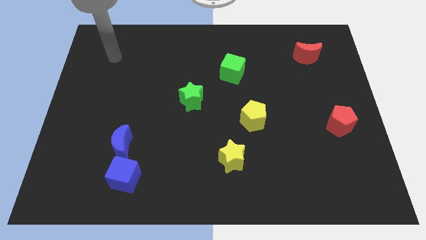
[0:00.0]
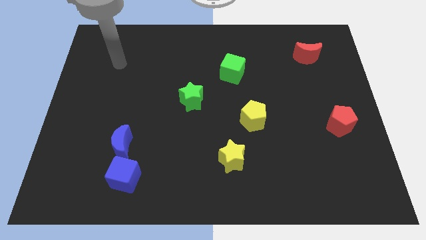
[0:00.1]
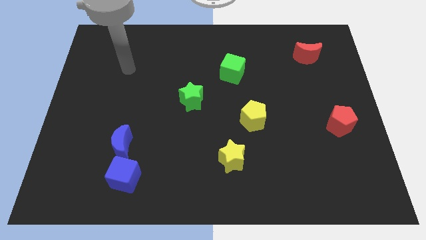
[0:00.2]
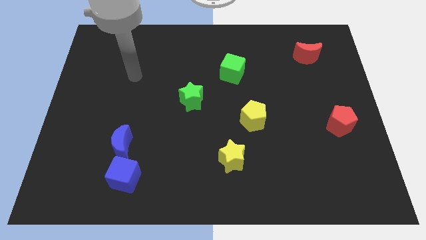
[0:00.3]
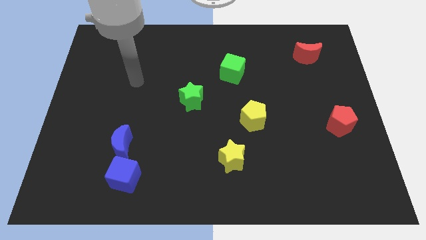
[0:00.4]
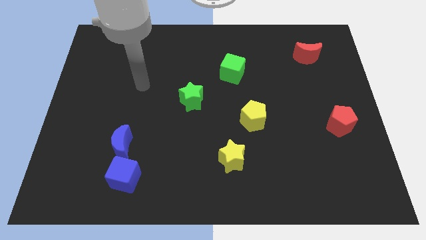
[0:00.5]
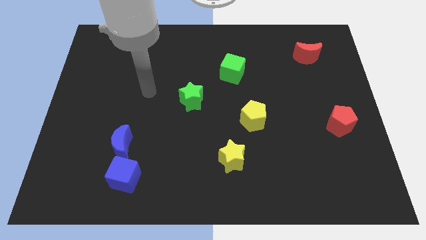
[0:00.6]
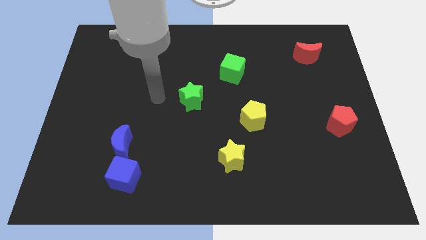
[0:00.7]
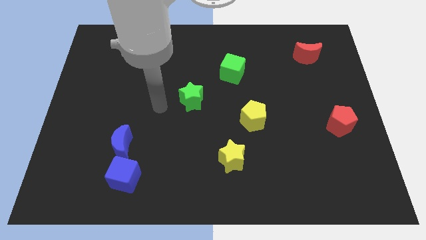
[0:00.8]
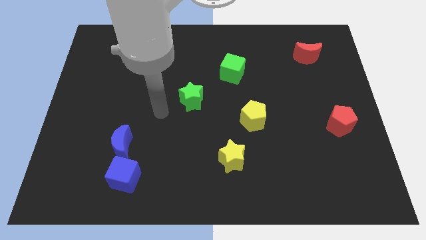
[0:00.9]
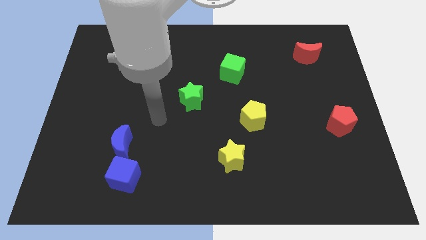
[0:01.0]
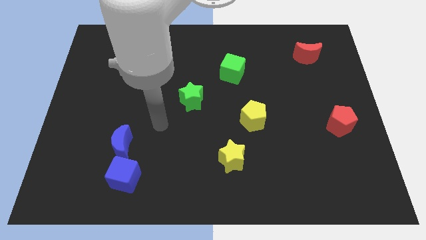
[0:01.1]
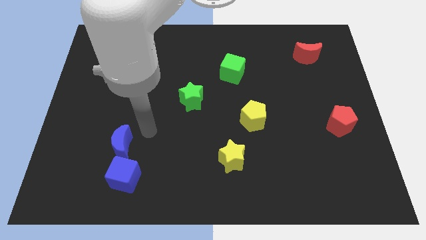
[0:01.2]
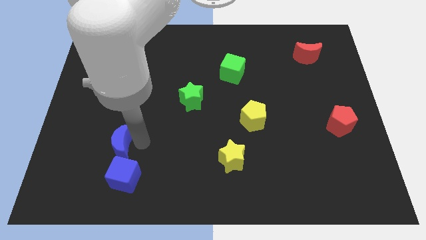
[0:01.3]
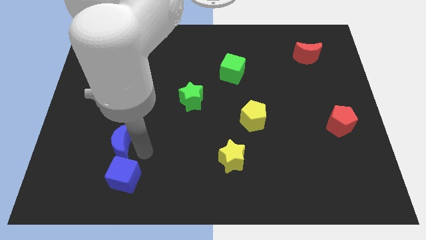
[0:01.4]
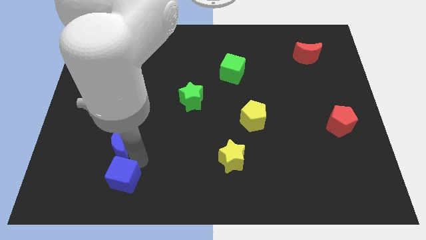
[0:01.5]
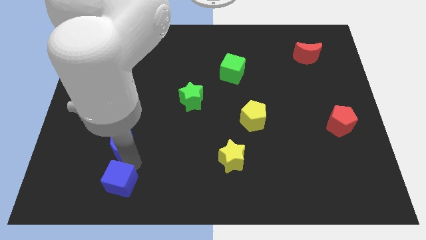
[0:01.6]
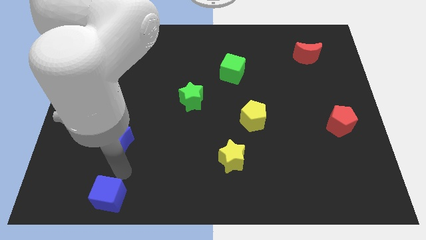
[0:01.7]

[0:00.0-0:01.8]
pull the blue moon apart from the blue cube

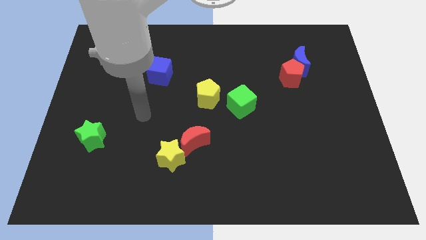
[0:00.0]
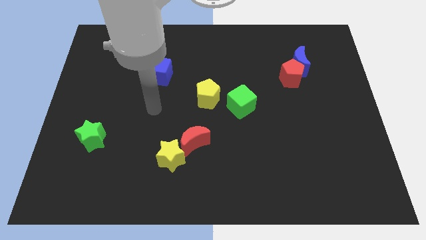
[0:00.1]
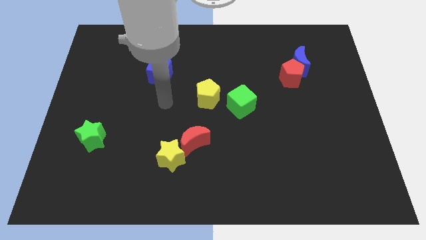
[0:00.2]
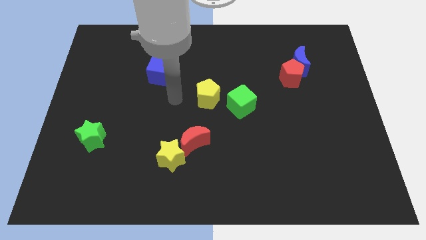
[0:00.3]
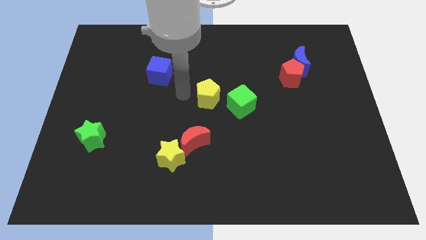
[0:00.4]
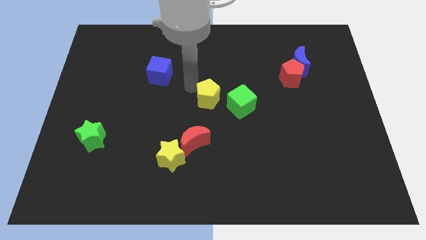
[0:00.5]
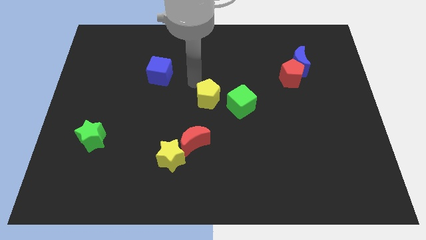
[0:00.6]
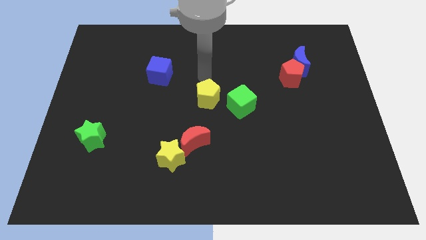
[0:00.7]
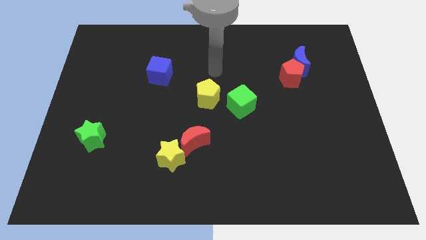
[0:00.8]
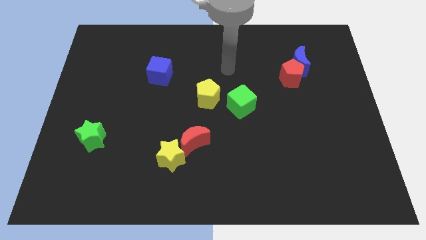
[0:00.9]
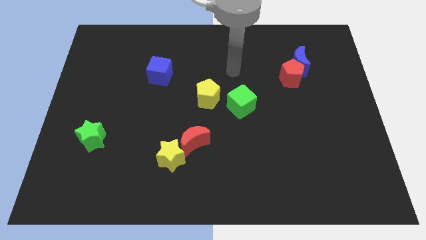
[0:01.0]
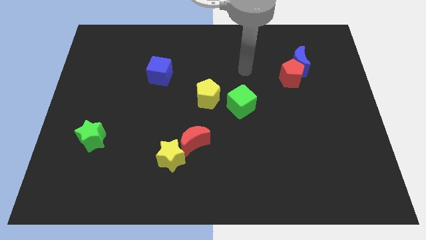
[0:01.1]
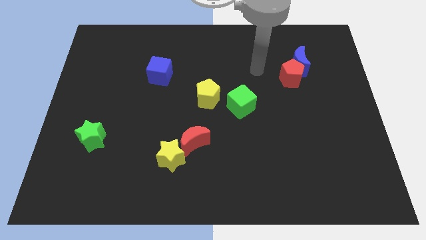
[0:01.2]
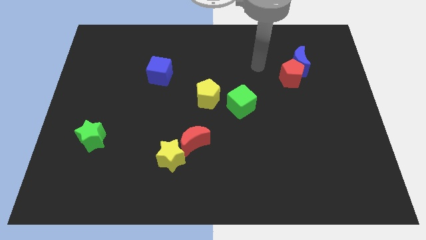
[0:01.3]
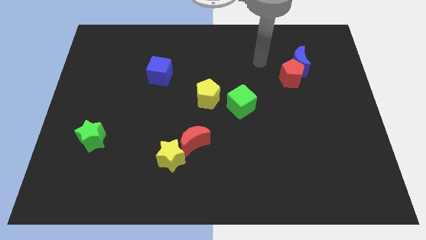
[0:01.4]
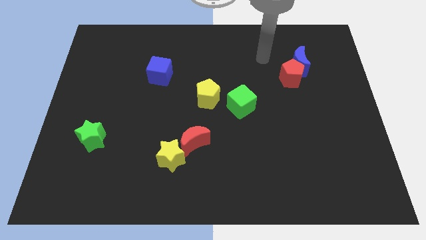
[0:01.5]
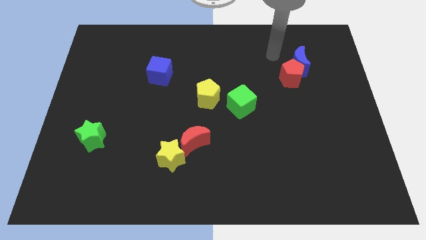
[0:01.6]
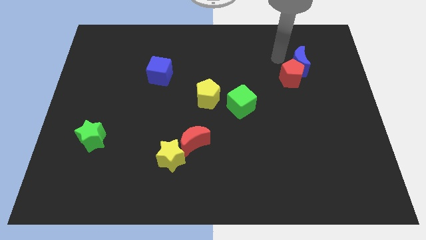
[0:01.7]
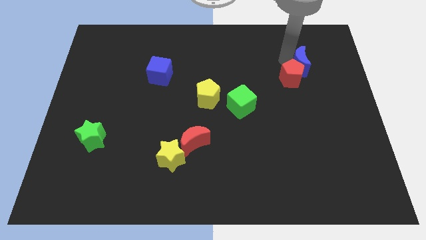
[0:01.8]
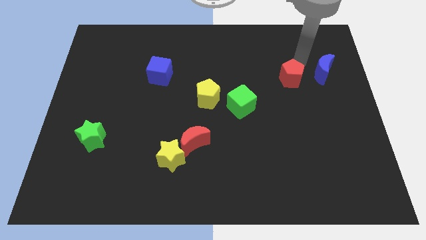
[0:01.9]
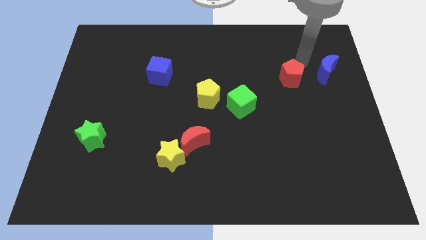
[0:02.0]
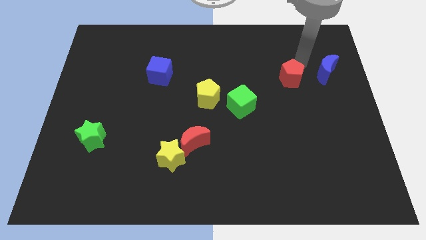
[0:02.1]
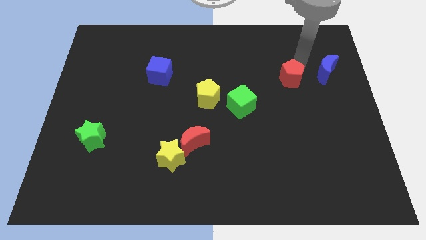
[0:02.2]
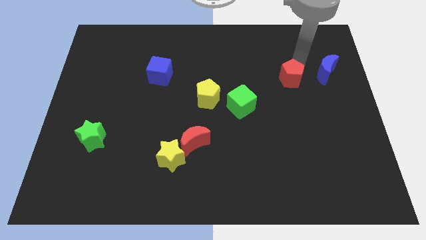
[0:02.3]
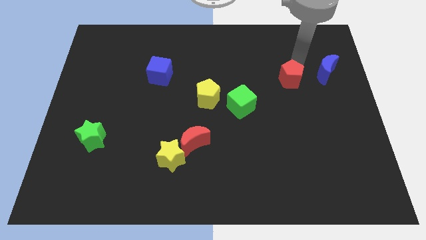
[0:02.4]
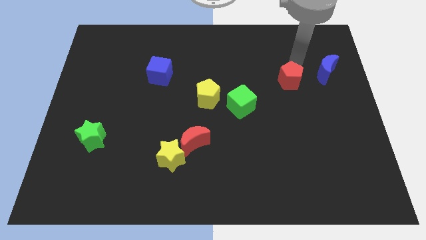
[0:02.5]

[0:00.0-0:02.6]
move the red pentagon away from the blue moon

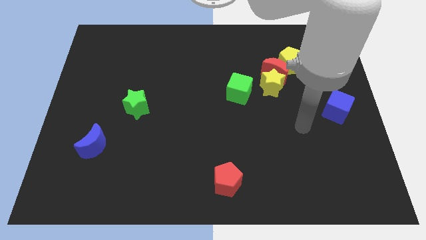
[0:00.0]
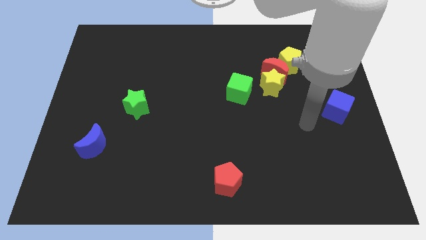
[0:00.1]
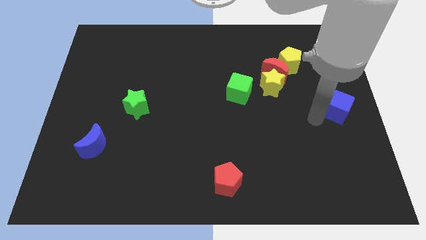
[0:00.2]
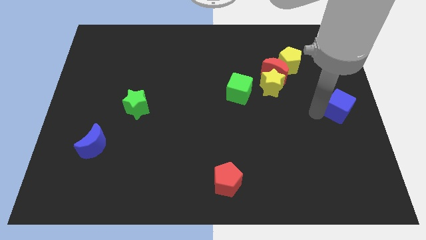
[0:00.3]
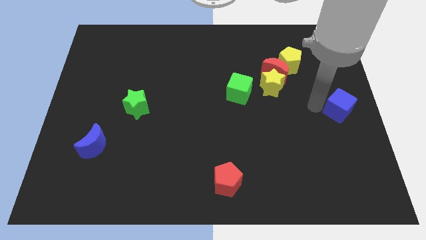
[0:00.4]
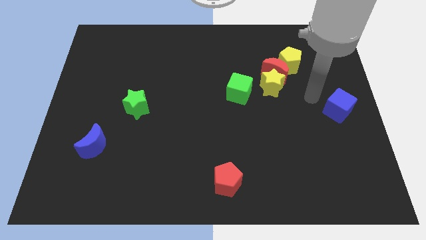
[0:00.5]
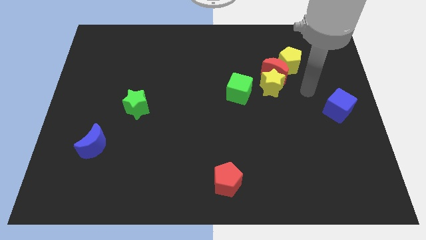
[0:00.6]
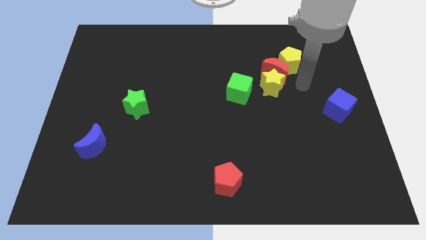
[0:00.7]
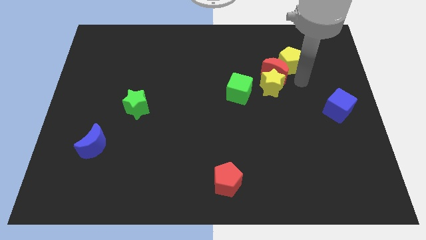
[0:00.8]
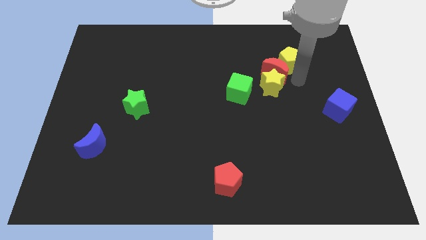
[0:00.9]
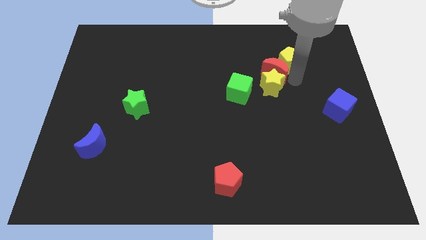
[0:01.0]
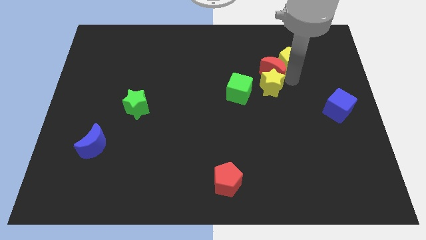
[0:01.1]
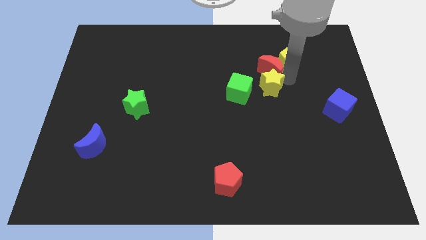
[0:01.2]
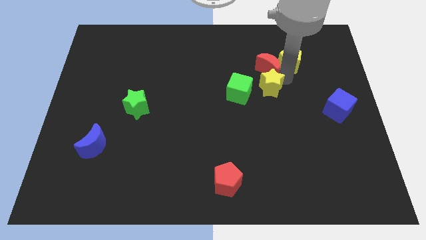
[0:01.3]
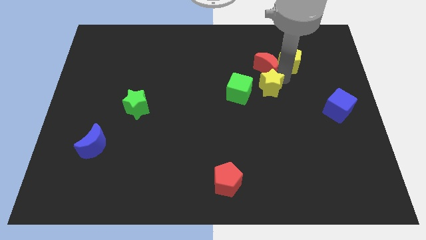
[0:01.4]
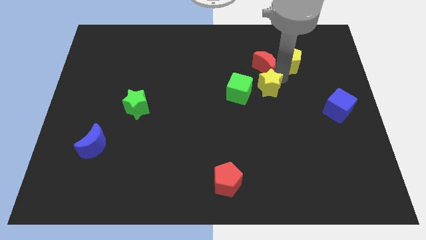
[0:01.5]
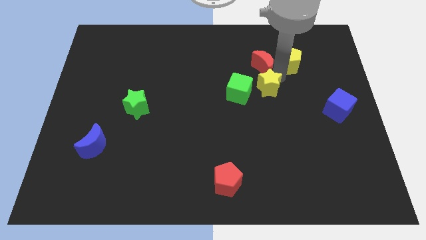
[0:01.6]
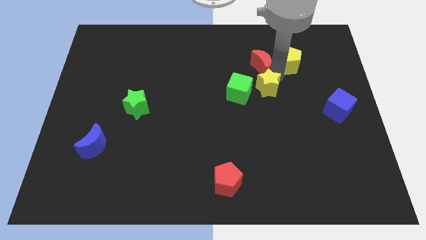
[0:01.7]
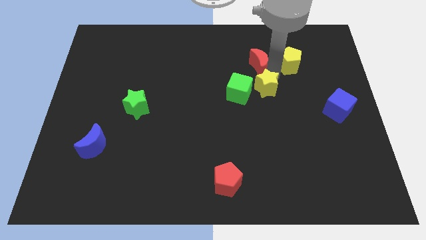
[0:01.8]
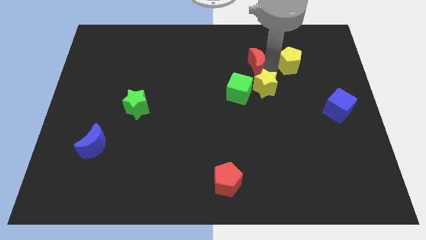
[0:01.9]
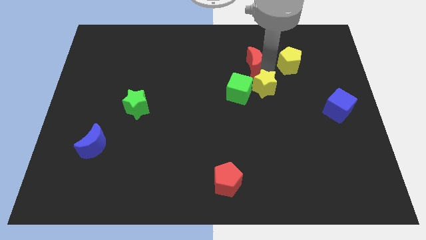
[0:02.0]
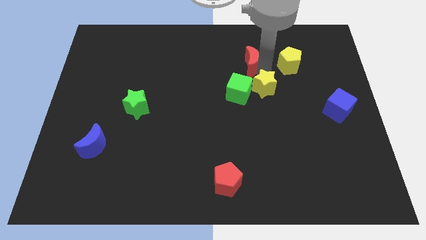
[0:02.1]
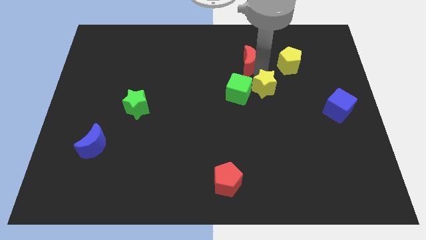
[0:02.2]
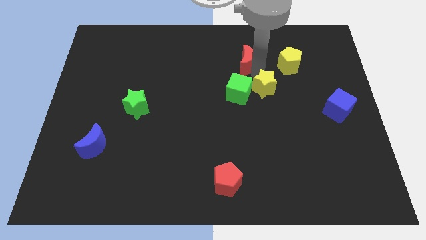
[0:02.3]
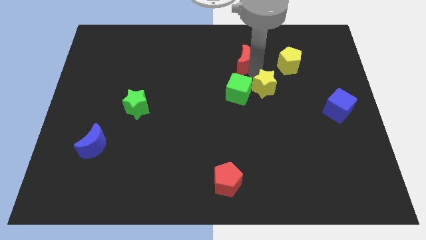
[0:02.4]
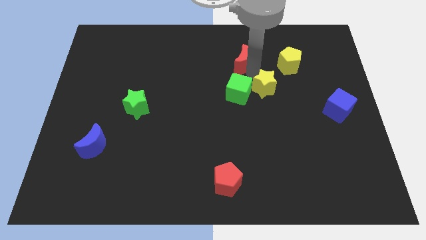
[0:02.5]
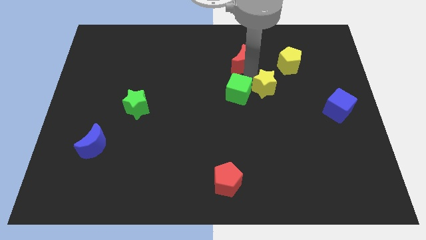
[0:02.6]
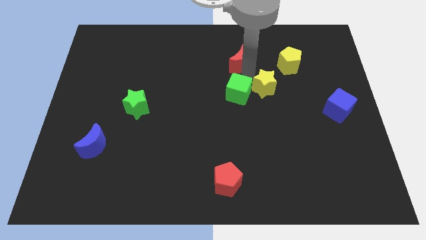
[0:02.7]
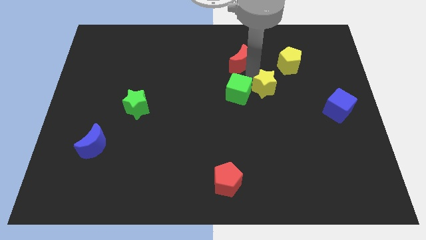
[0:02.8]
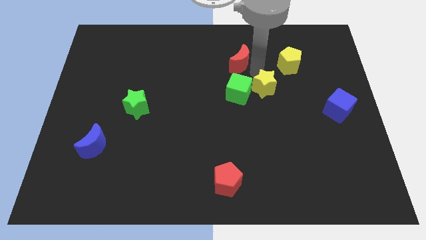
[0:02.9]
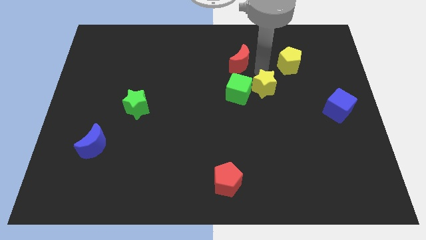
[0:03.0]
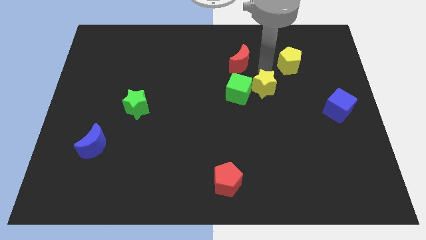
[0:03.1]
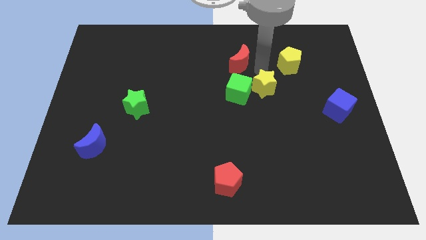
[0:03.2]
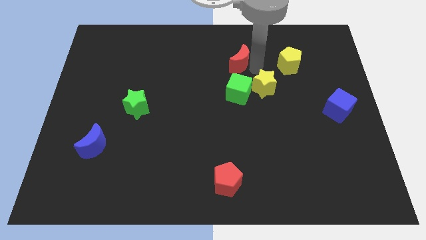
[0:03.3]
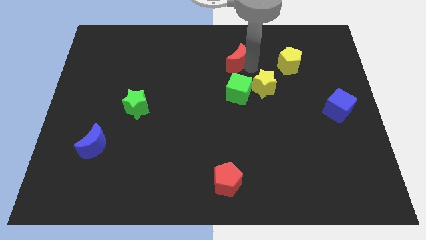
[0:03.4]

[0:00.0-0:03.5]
move the red moon away from the yellow star and yellow pentagon

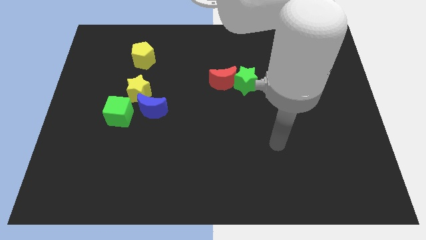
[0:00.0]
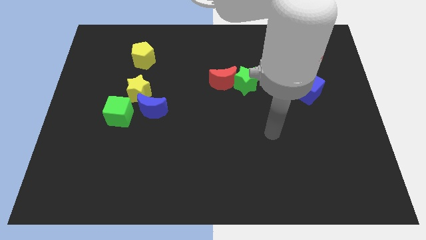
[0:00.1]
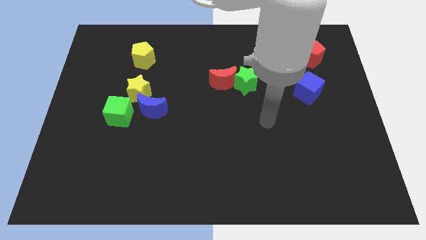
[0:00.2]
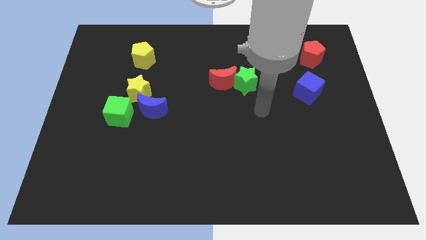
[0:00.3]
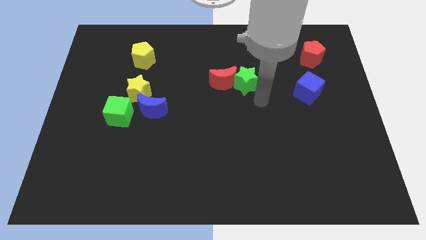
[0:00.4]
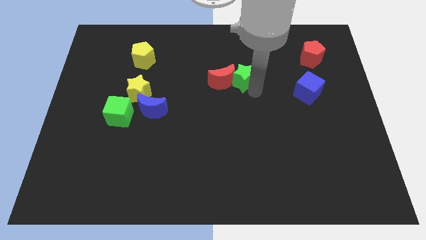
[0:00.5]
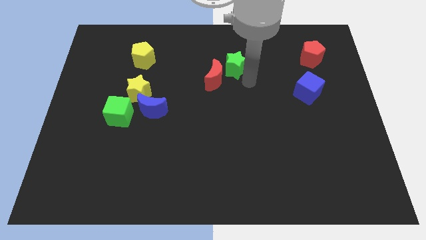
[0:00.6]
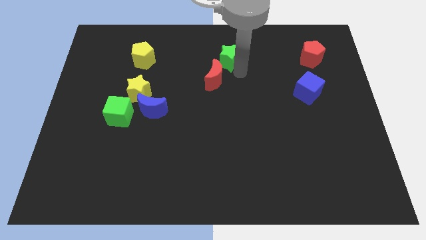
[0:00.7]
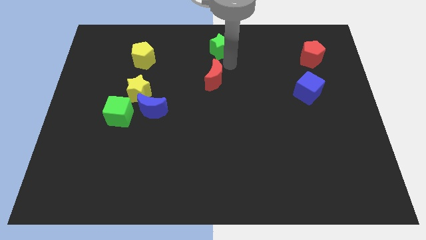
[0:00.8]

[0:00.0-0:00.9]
move the red moon away from the green star

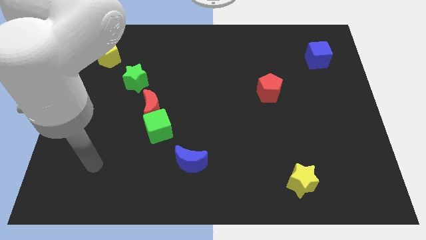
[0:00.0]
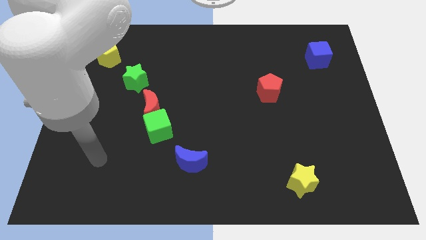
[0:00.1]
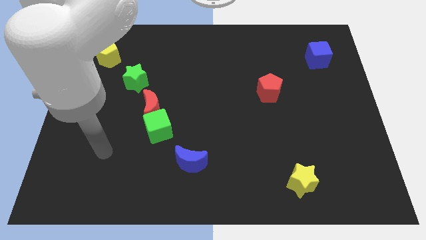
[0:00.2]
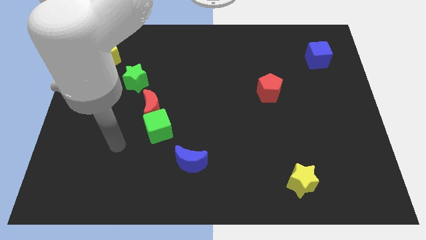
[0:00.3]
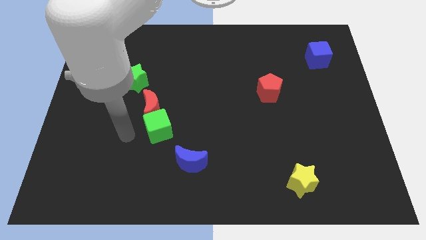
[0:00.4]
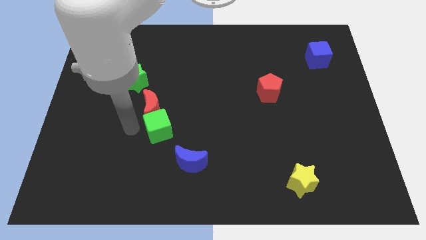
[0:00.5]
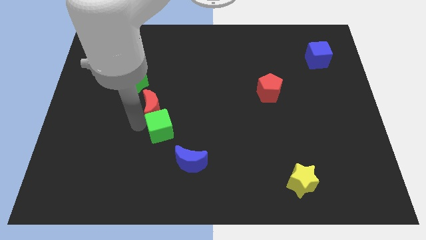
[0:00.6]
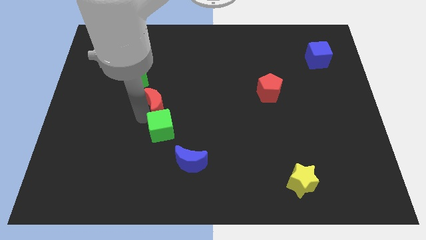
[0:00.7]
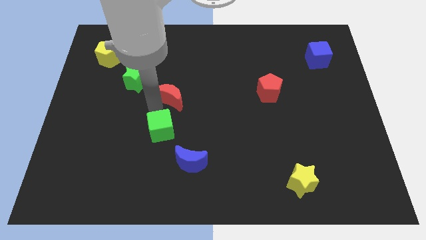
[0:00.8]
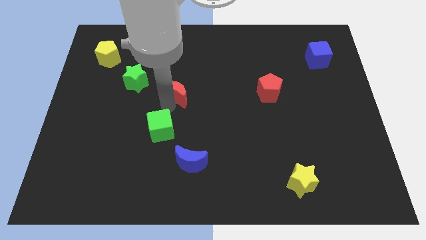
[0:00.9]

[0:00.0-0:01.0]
separate the green cube from the red moon
